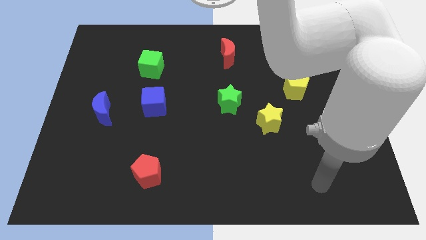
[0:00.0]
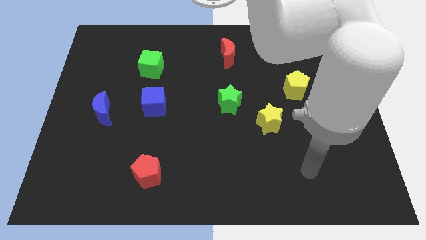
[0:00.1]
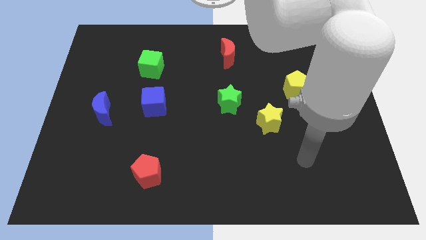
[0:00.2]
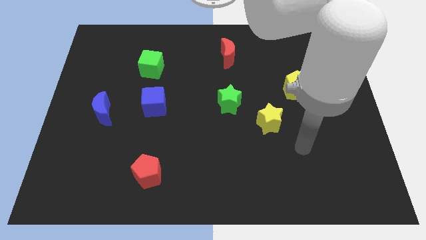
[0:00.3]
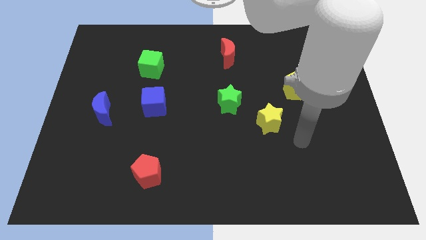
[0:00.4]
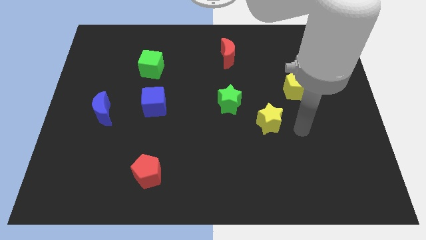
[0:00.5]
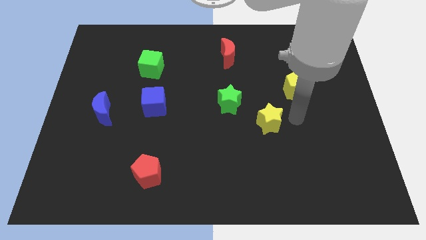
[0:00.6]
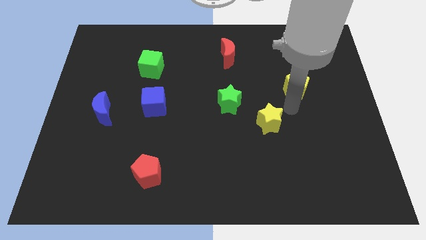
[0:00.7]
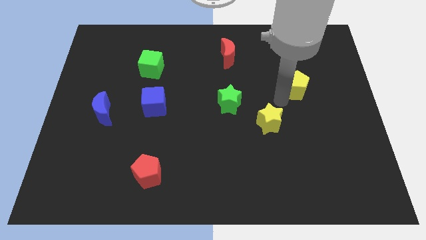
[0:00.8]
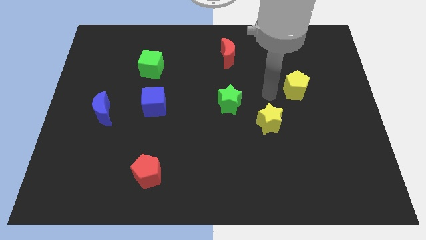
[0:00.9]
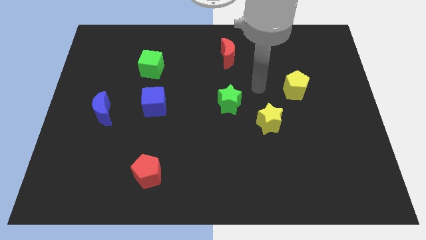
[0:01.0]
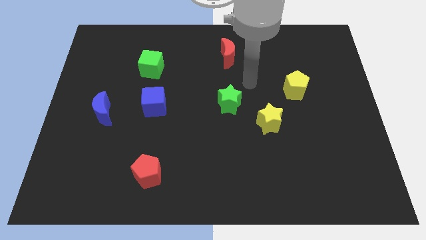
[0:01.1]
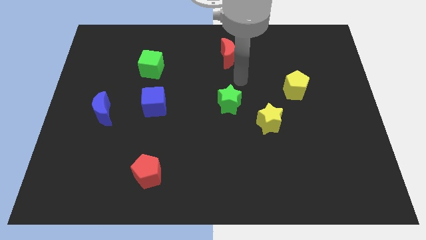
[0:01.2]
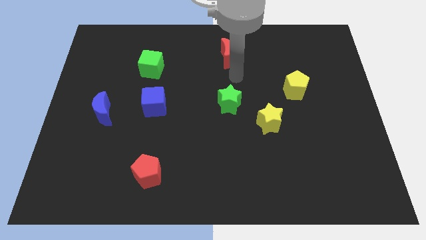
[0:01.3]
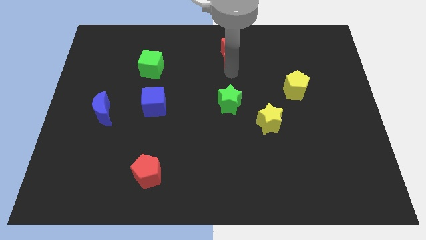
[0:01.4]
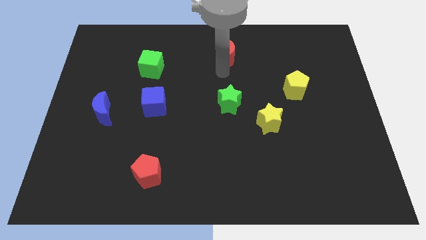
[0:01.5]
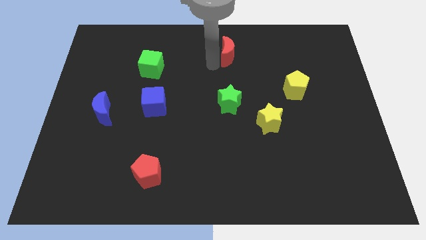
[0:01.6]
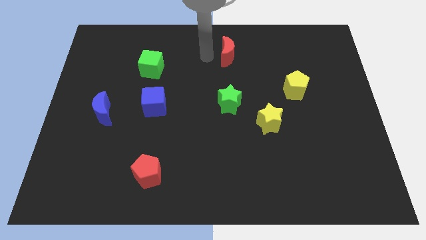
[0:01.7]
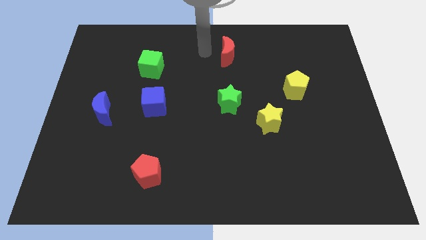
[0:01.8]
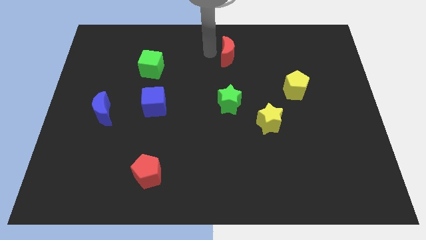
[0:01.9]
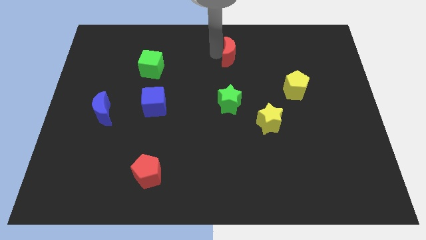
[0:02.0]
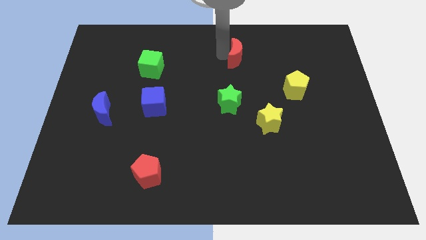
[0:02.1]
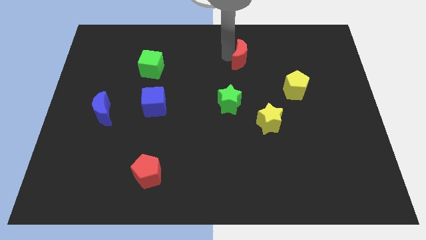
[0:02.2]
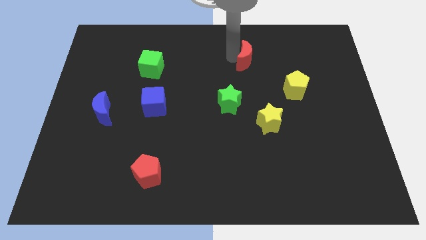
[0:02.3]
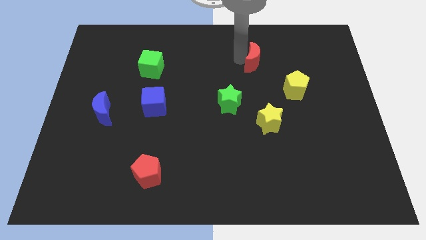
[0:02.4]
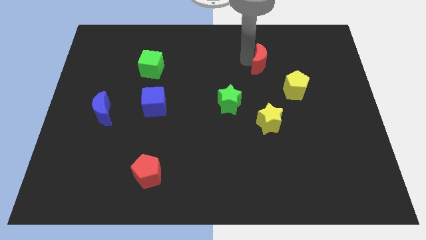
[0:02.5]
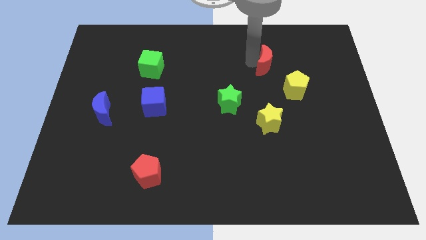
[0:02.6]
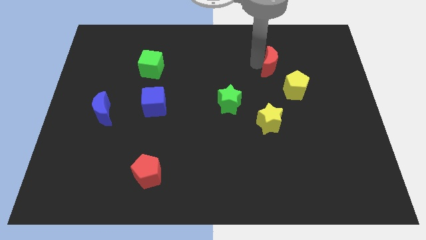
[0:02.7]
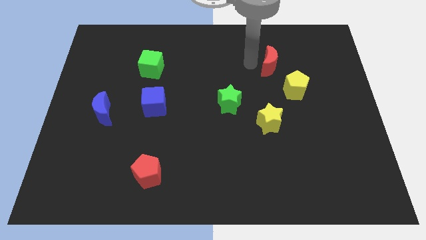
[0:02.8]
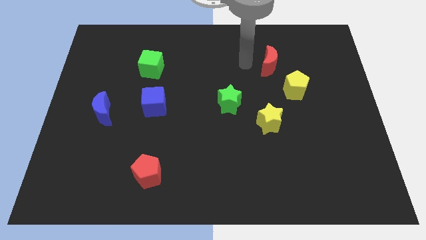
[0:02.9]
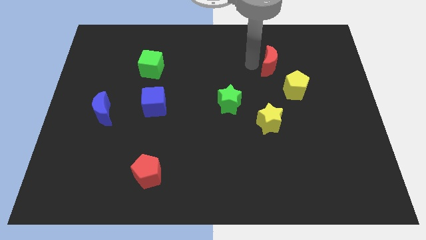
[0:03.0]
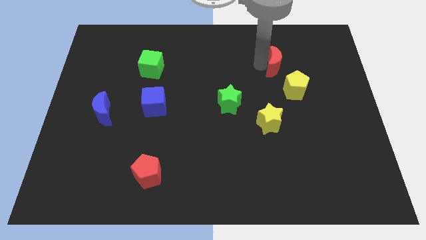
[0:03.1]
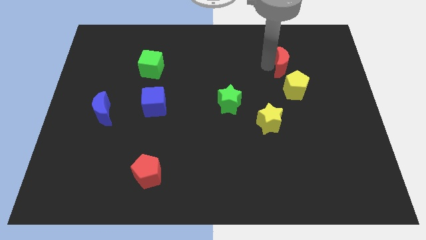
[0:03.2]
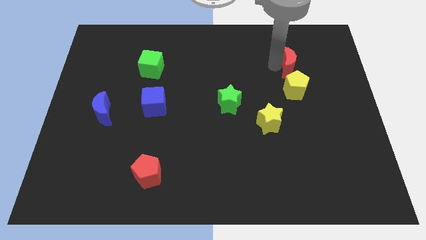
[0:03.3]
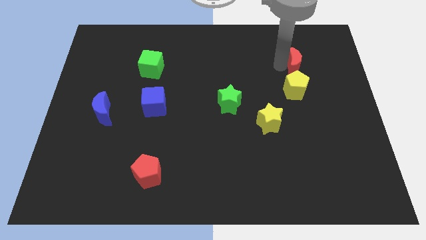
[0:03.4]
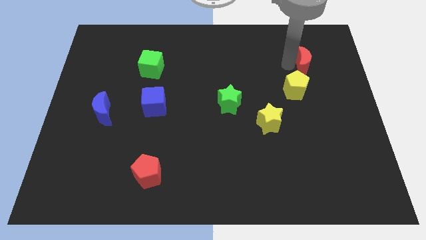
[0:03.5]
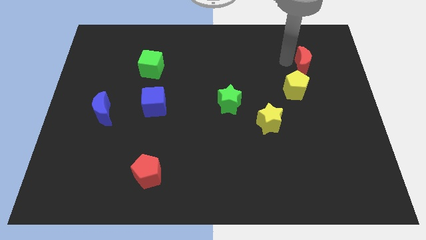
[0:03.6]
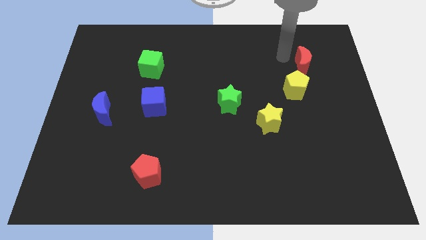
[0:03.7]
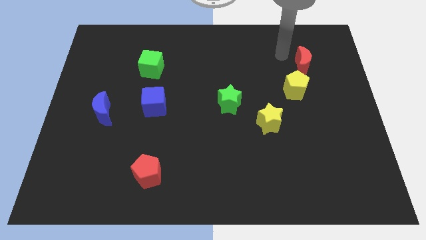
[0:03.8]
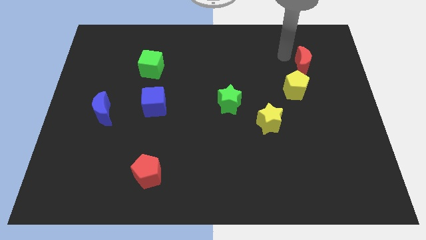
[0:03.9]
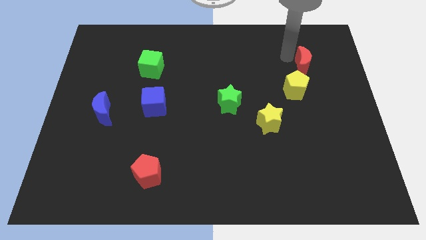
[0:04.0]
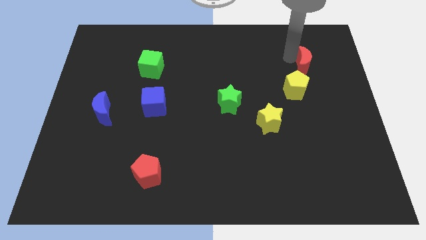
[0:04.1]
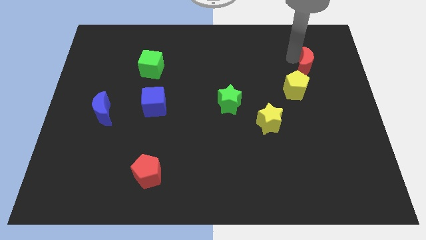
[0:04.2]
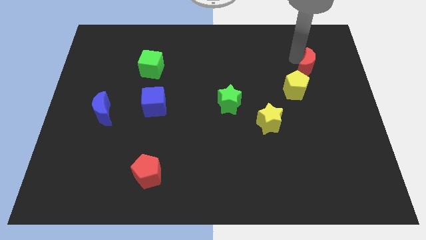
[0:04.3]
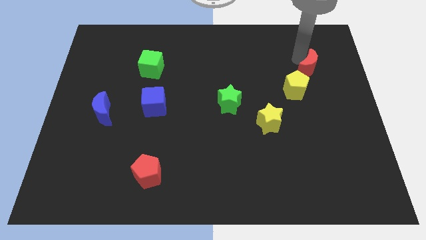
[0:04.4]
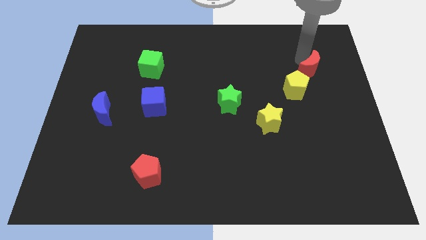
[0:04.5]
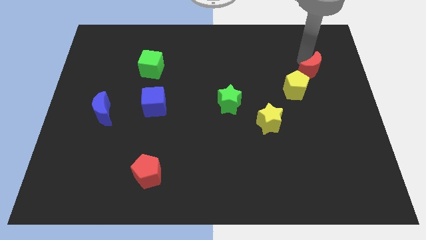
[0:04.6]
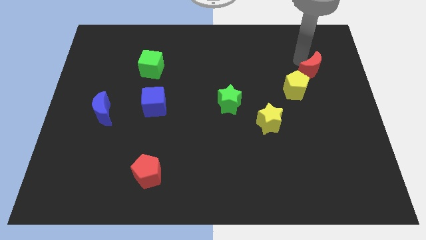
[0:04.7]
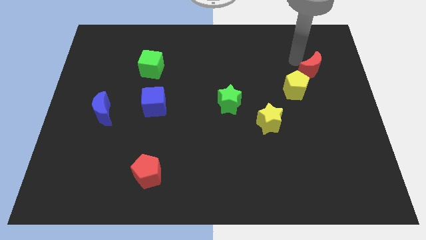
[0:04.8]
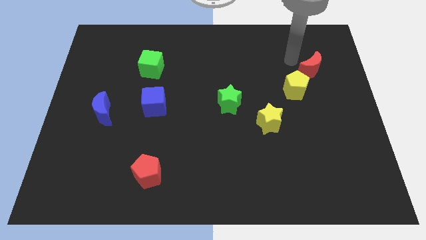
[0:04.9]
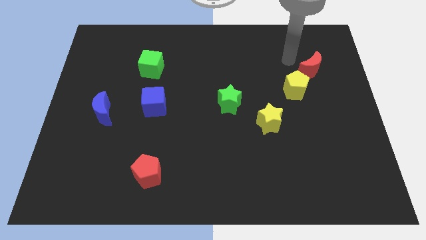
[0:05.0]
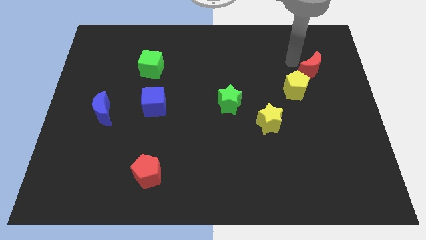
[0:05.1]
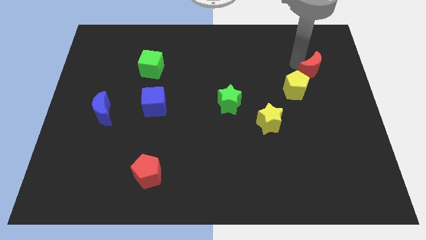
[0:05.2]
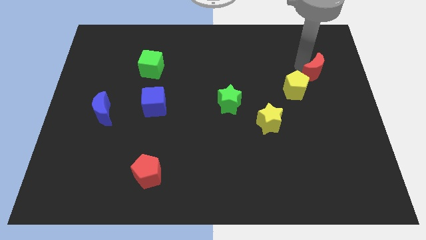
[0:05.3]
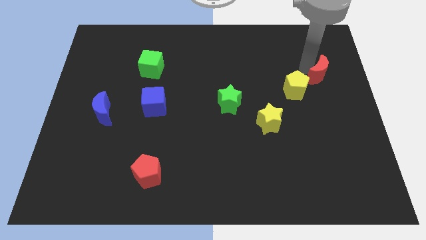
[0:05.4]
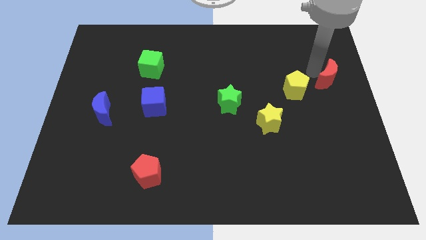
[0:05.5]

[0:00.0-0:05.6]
put the red moon to the right side

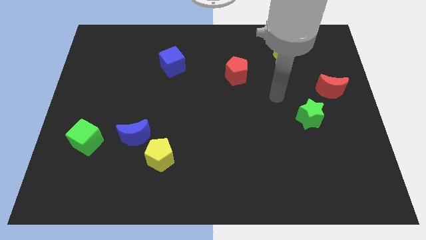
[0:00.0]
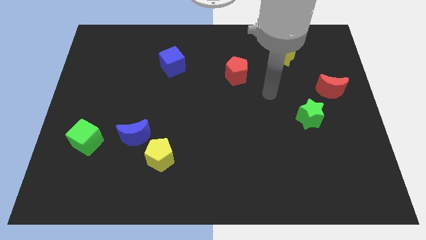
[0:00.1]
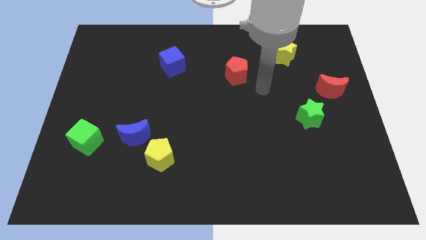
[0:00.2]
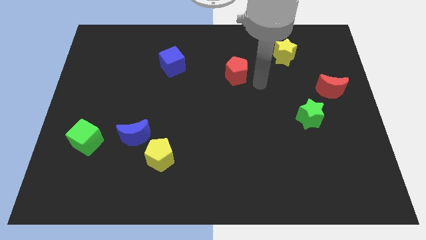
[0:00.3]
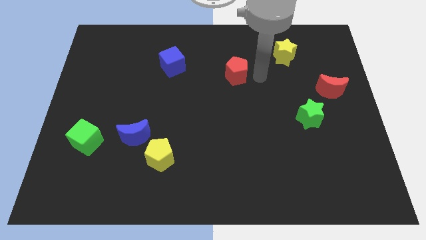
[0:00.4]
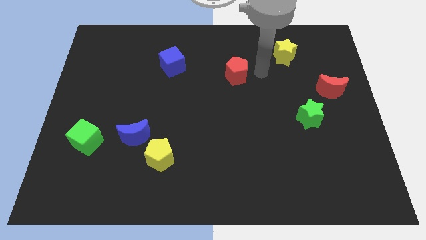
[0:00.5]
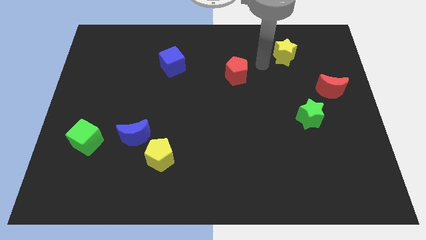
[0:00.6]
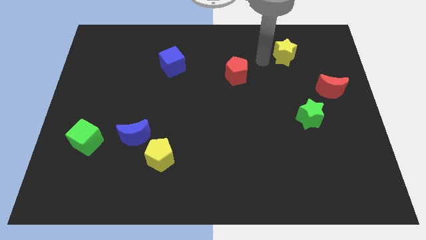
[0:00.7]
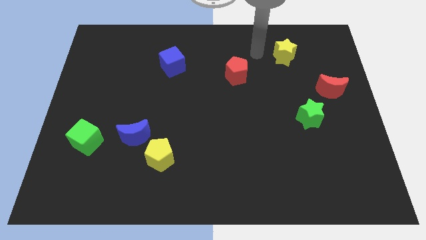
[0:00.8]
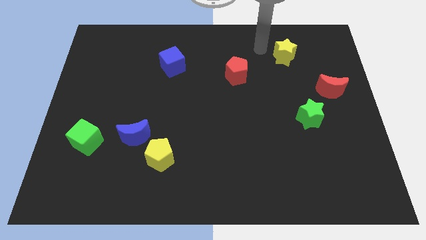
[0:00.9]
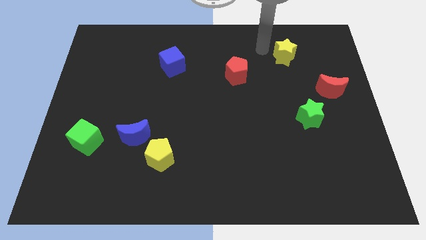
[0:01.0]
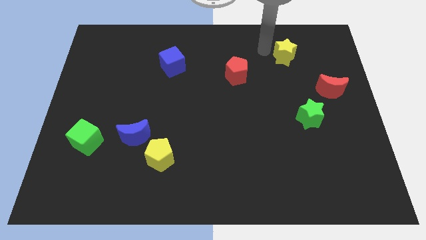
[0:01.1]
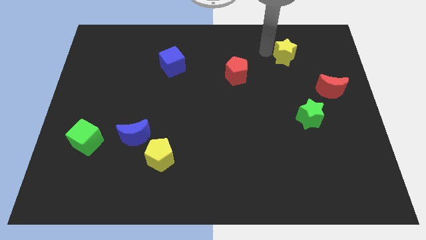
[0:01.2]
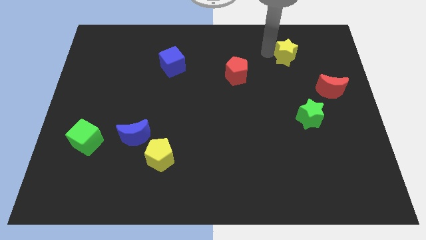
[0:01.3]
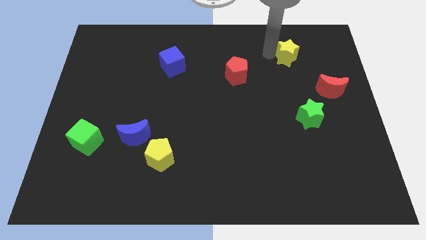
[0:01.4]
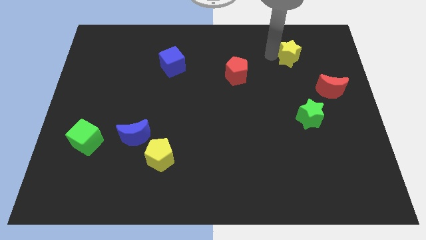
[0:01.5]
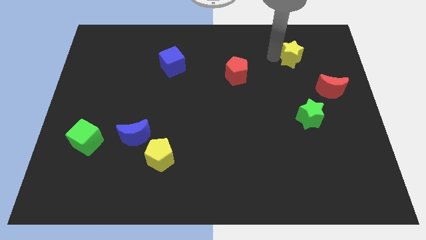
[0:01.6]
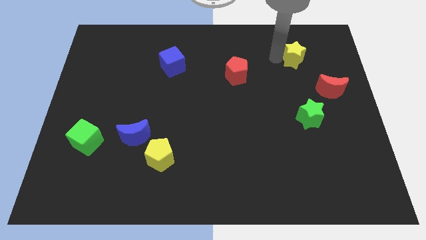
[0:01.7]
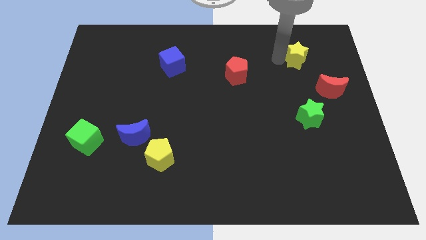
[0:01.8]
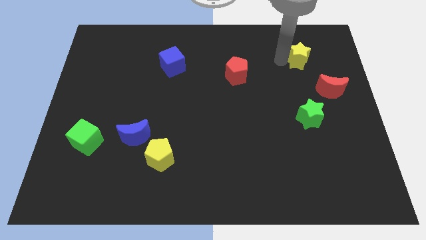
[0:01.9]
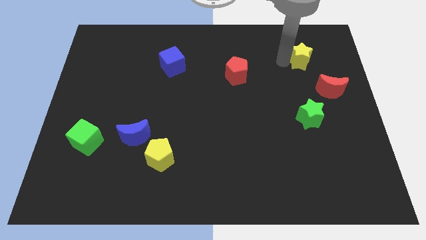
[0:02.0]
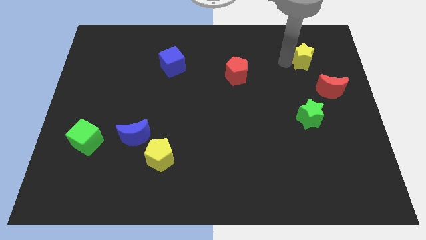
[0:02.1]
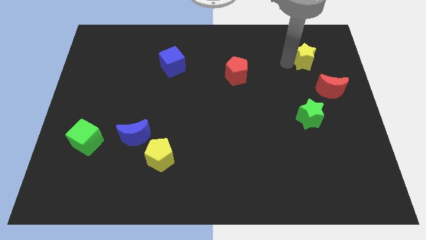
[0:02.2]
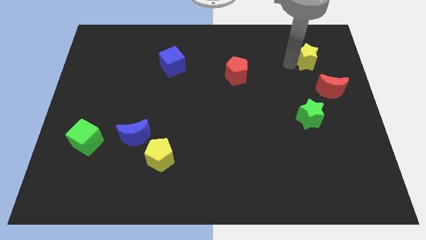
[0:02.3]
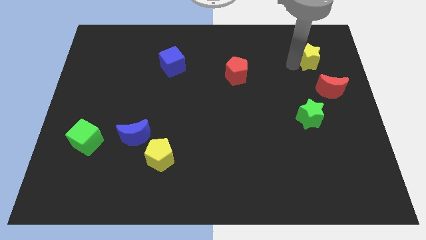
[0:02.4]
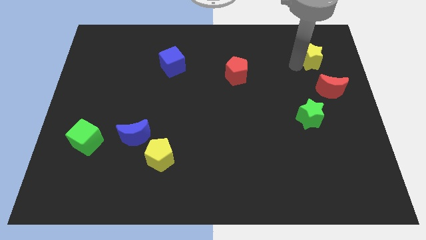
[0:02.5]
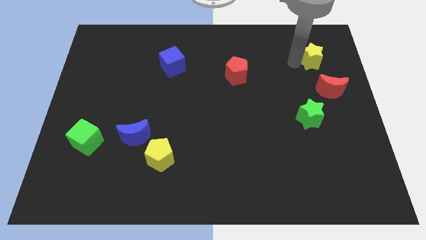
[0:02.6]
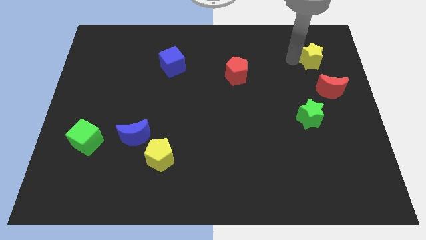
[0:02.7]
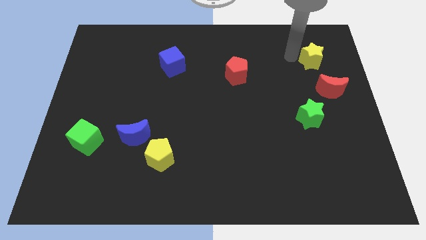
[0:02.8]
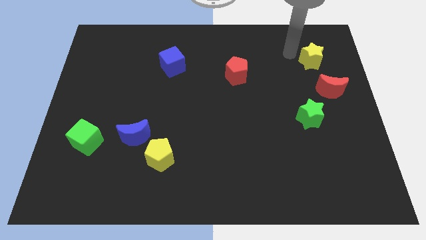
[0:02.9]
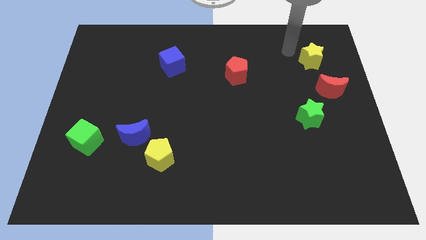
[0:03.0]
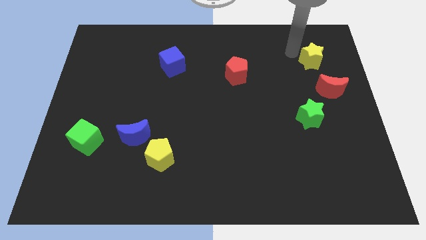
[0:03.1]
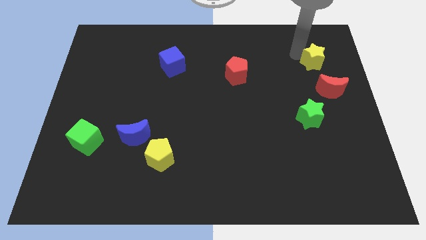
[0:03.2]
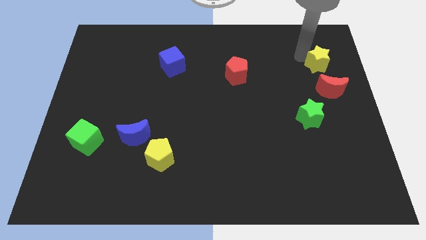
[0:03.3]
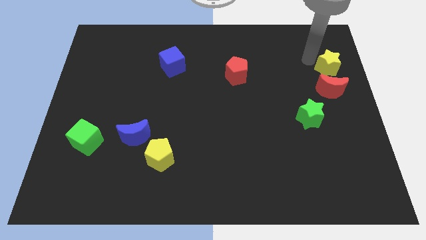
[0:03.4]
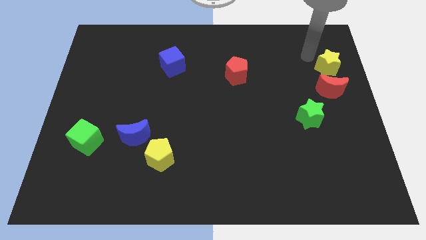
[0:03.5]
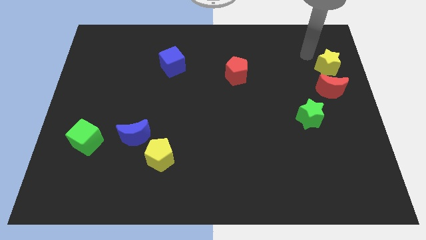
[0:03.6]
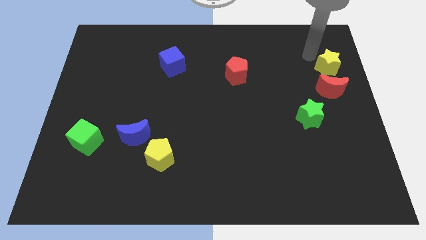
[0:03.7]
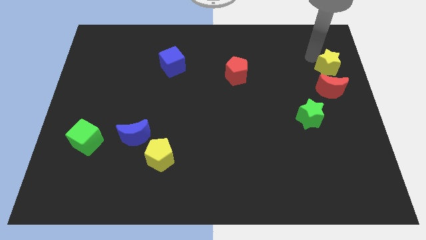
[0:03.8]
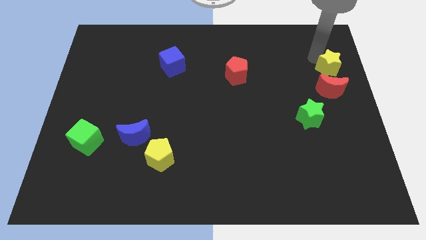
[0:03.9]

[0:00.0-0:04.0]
push the yellow star to the center right
